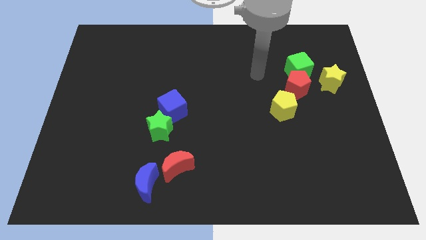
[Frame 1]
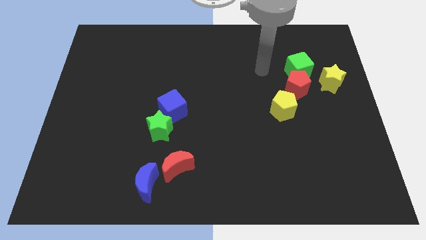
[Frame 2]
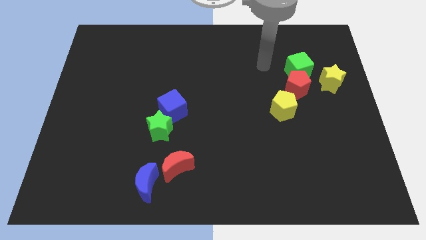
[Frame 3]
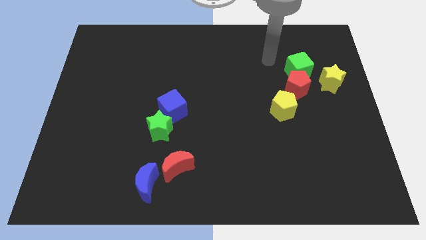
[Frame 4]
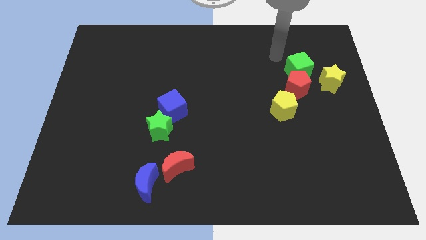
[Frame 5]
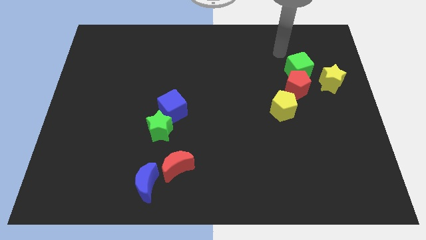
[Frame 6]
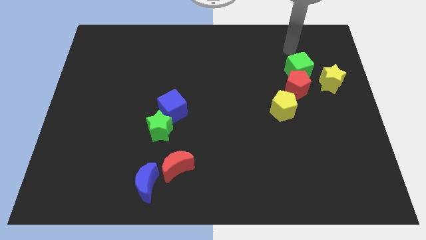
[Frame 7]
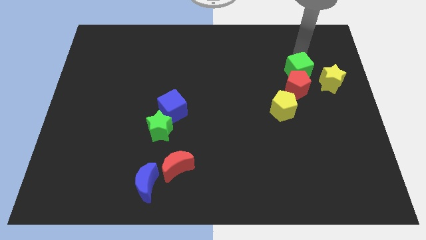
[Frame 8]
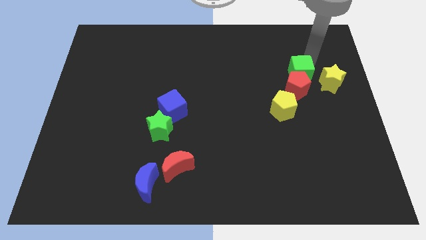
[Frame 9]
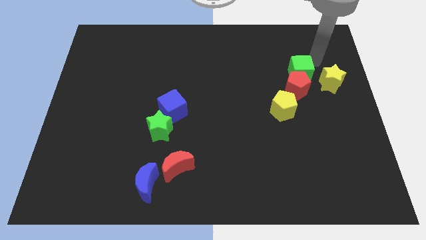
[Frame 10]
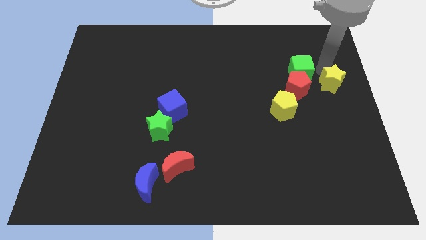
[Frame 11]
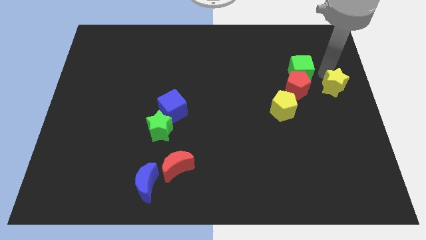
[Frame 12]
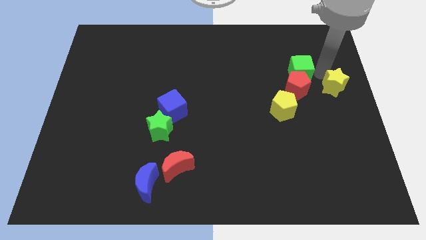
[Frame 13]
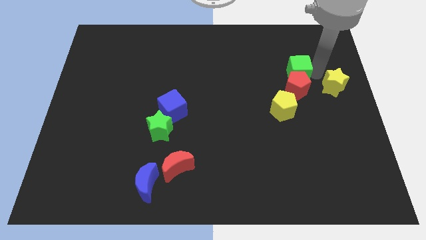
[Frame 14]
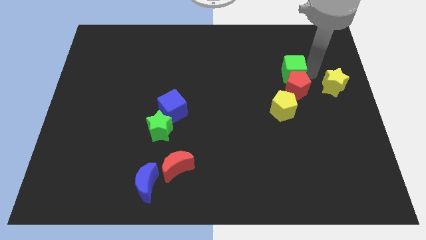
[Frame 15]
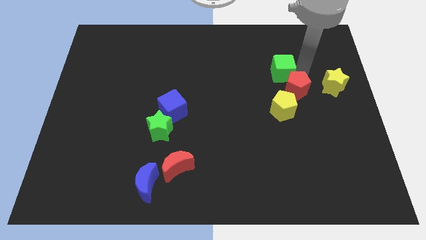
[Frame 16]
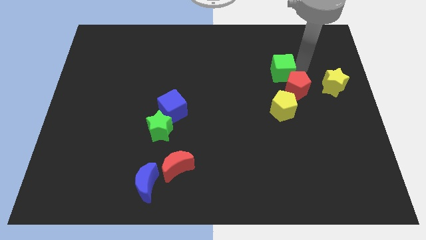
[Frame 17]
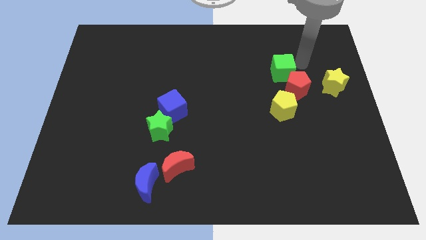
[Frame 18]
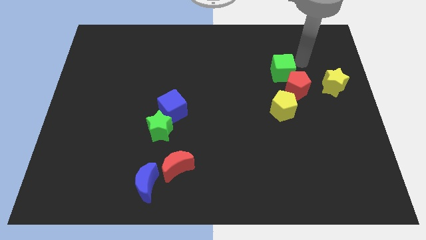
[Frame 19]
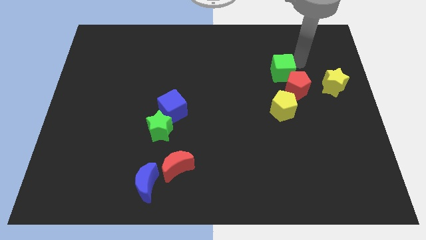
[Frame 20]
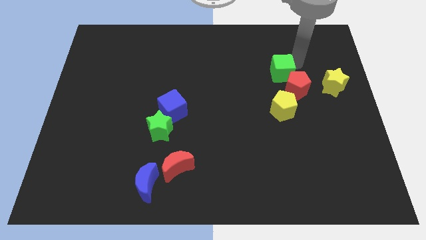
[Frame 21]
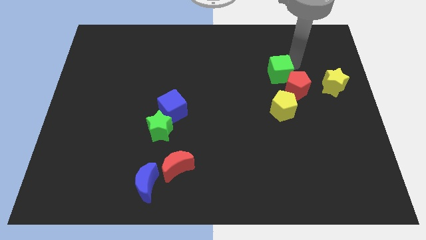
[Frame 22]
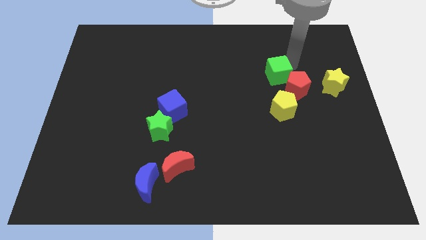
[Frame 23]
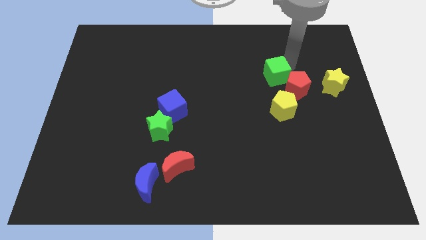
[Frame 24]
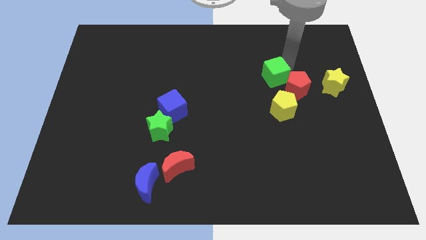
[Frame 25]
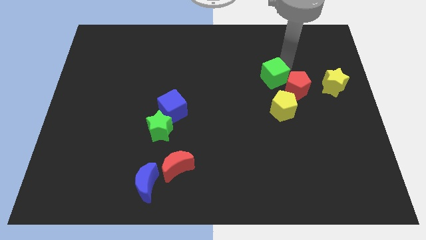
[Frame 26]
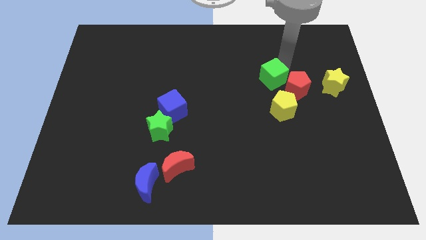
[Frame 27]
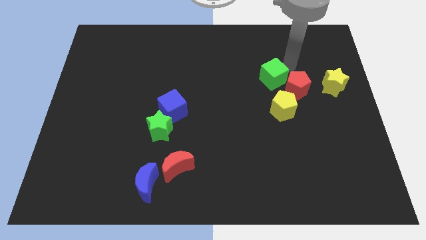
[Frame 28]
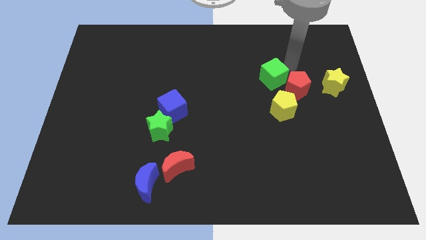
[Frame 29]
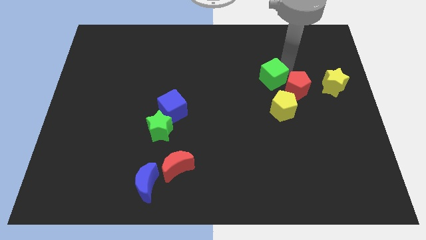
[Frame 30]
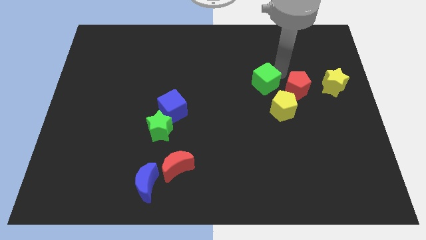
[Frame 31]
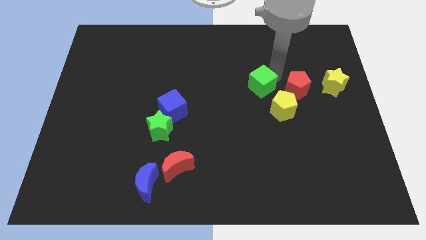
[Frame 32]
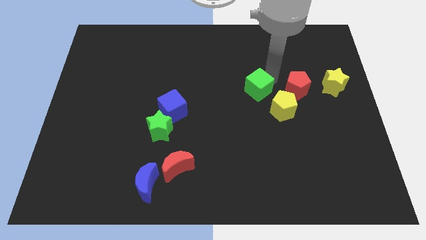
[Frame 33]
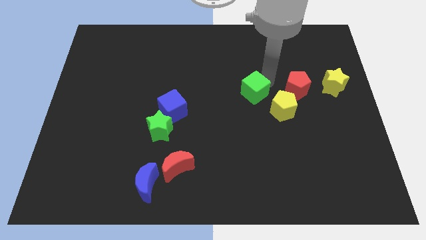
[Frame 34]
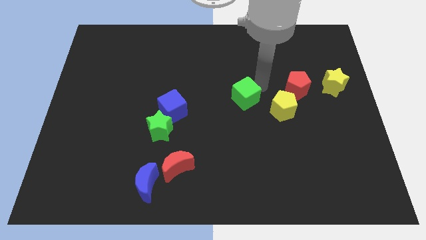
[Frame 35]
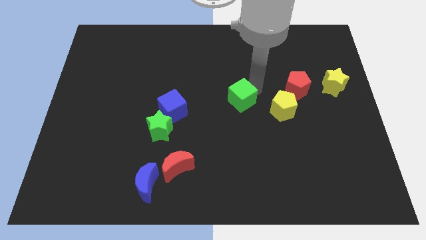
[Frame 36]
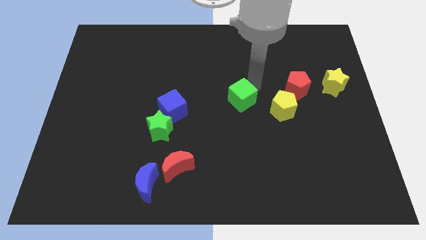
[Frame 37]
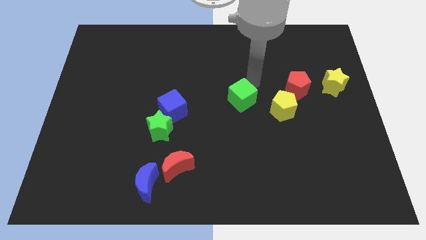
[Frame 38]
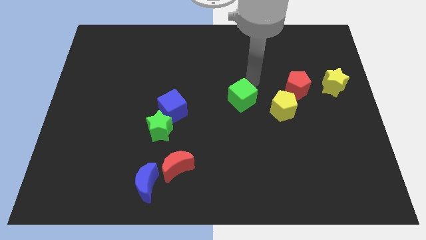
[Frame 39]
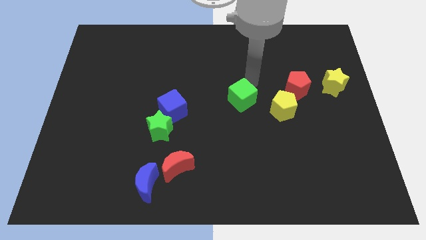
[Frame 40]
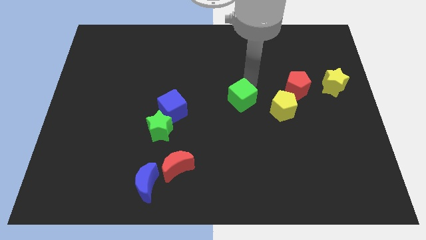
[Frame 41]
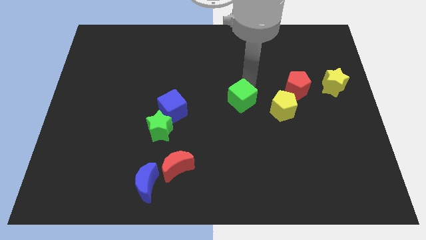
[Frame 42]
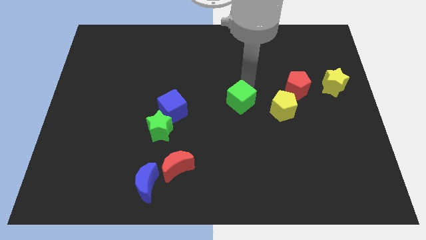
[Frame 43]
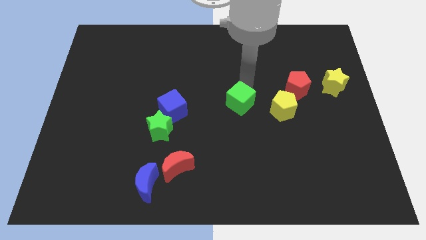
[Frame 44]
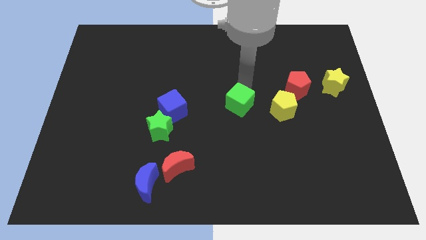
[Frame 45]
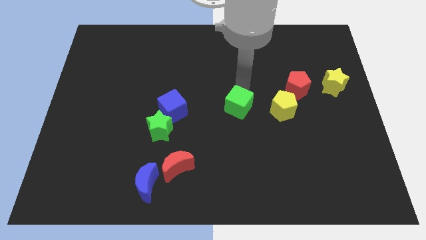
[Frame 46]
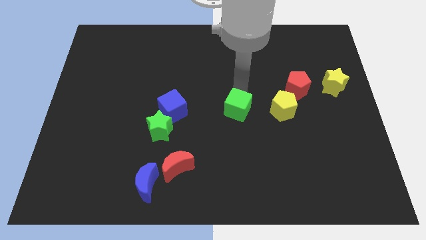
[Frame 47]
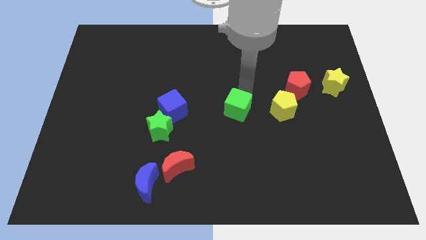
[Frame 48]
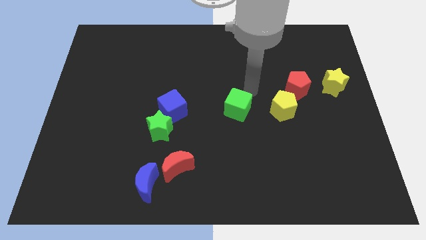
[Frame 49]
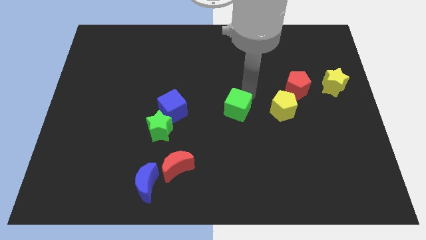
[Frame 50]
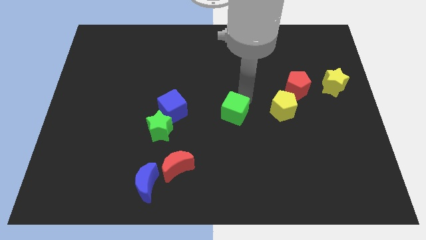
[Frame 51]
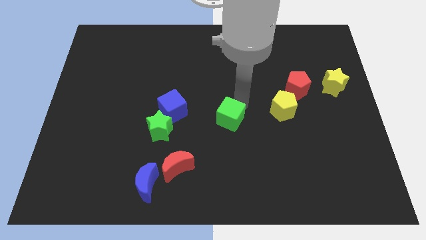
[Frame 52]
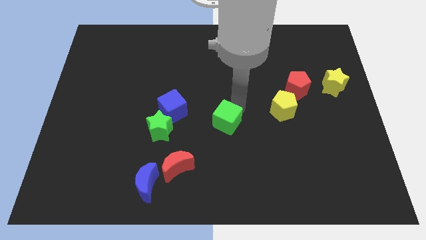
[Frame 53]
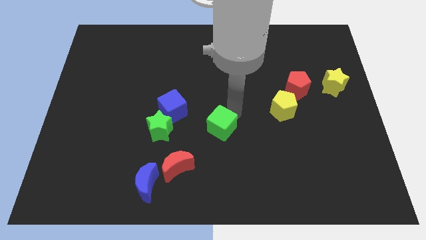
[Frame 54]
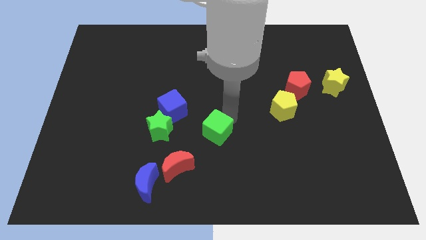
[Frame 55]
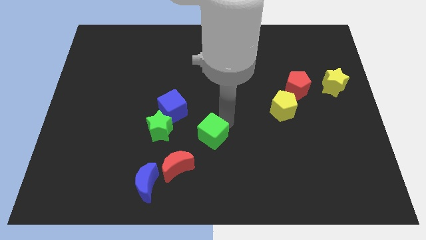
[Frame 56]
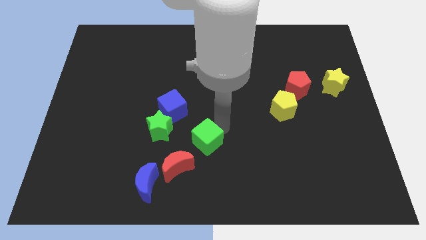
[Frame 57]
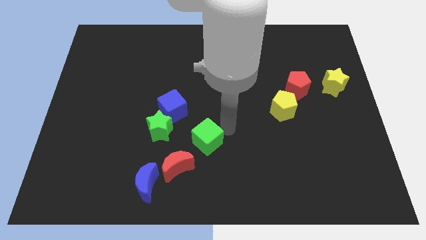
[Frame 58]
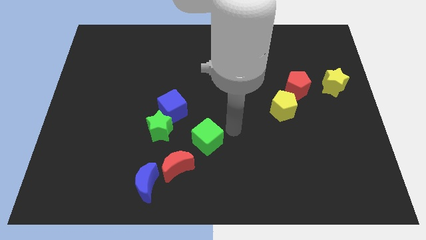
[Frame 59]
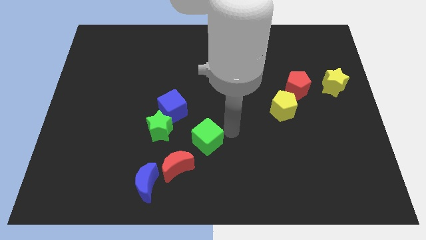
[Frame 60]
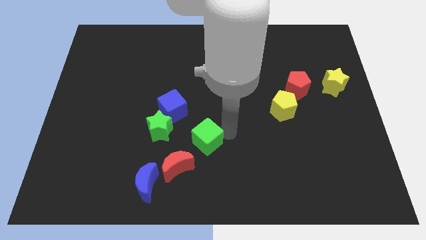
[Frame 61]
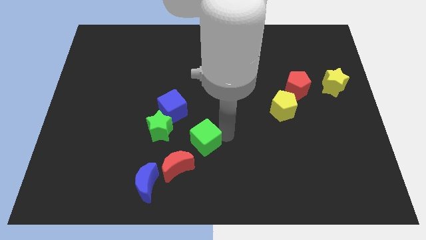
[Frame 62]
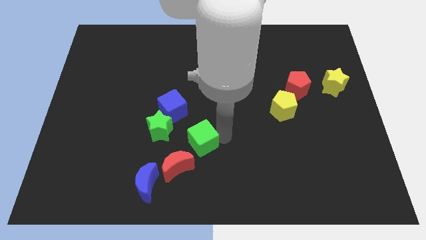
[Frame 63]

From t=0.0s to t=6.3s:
move the green cube diagonally down and to the right of the green star

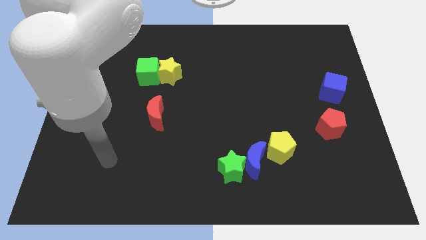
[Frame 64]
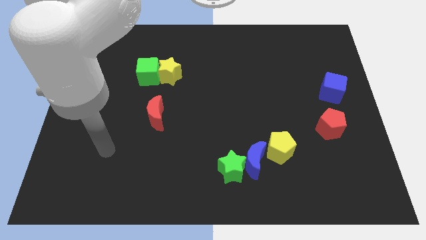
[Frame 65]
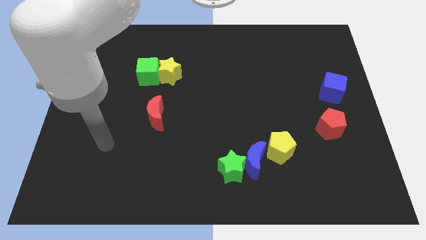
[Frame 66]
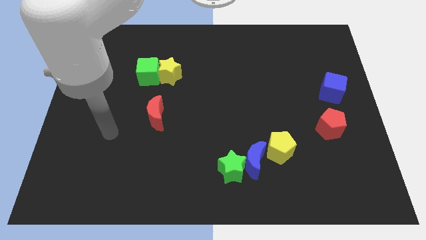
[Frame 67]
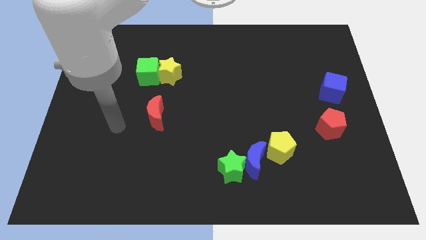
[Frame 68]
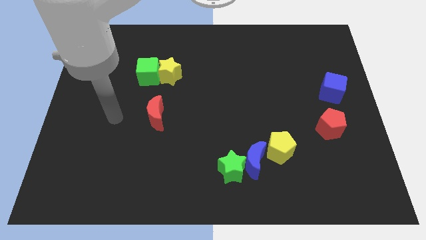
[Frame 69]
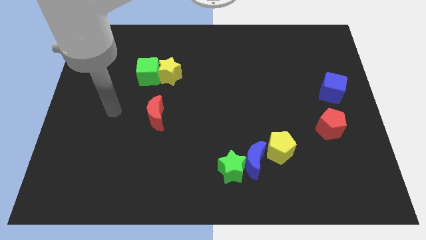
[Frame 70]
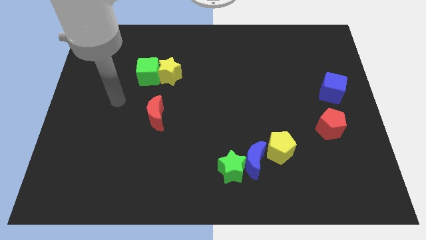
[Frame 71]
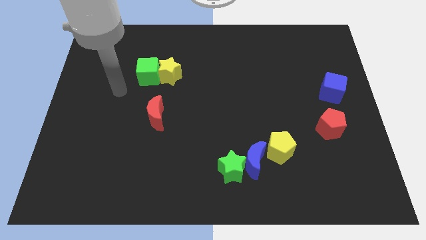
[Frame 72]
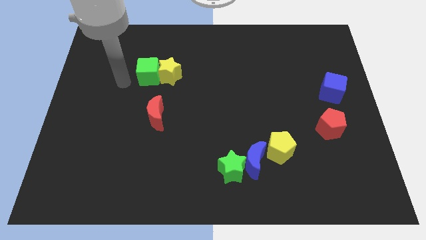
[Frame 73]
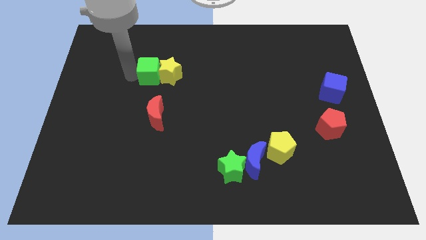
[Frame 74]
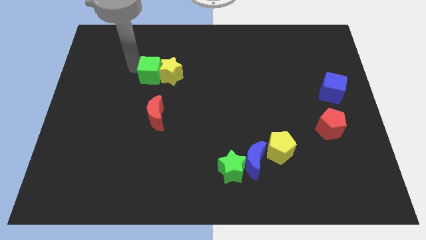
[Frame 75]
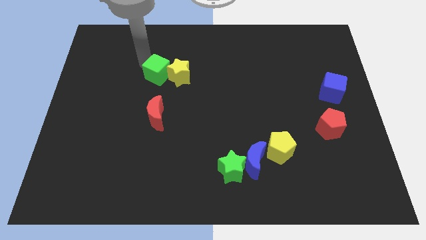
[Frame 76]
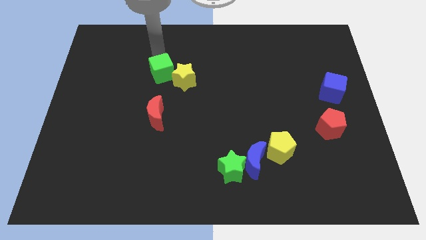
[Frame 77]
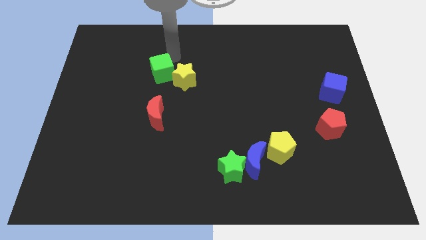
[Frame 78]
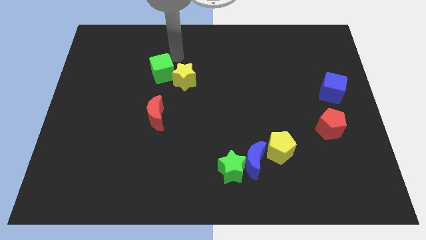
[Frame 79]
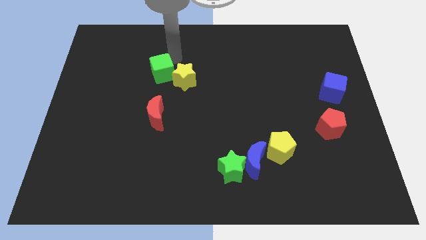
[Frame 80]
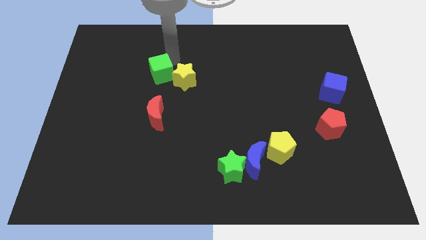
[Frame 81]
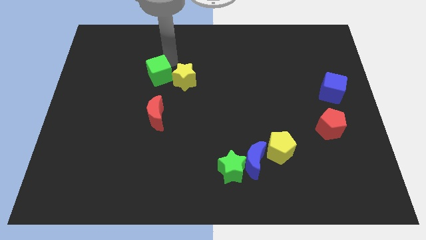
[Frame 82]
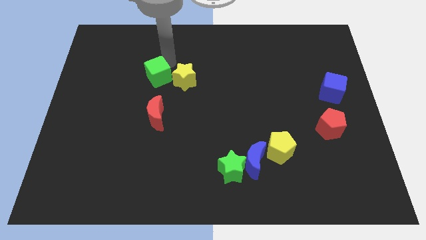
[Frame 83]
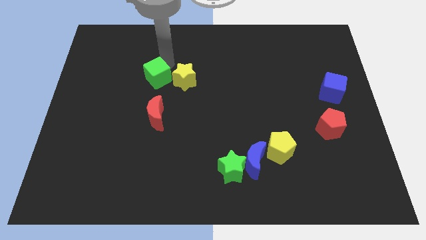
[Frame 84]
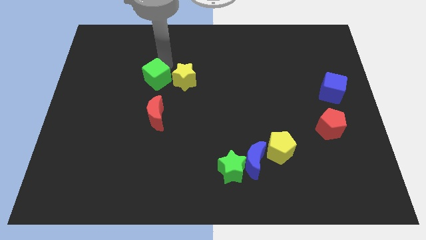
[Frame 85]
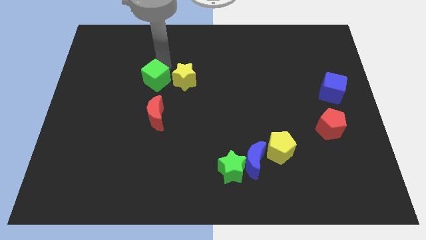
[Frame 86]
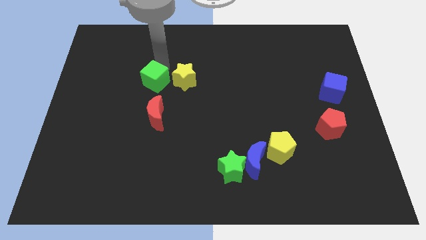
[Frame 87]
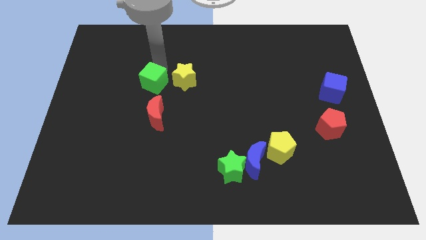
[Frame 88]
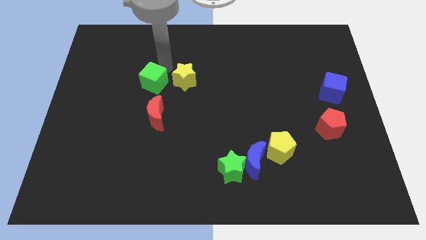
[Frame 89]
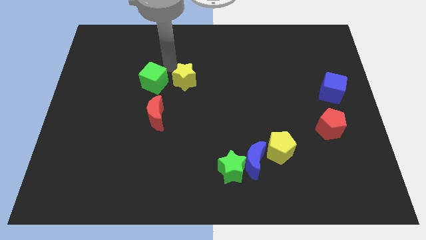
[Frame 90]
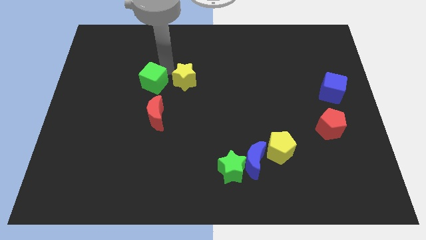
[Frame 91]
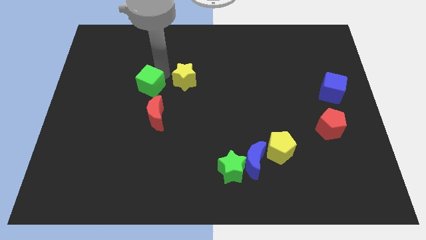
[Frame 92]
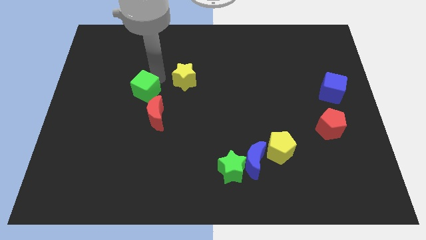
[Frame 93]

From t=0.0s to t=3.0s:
slide the green cube to the top left side of the red moon
